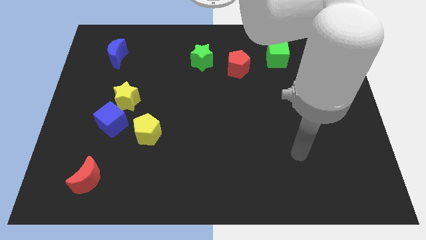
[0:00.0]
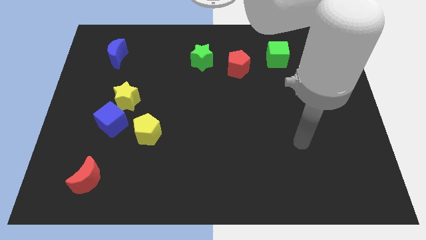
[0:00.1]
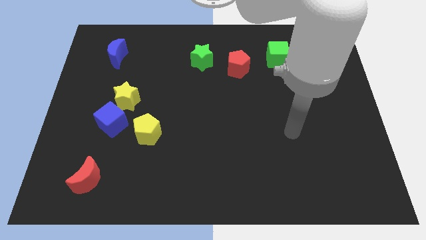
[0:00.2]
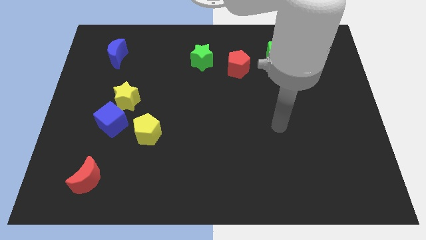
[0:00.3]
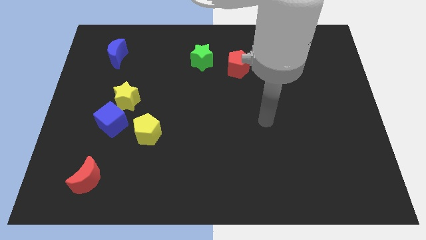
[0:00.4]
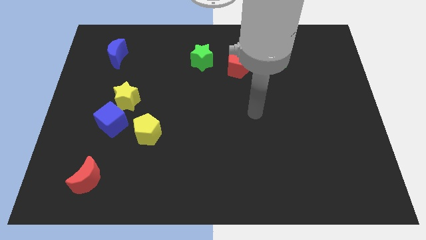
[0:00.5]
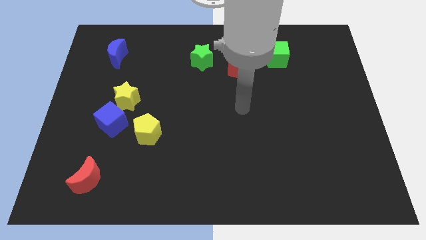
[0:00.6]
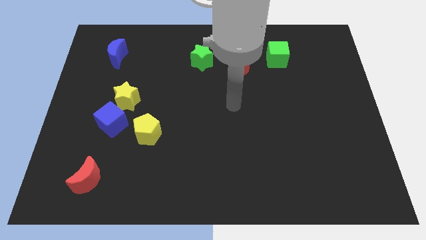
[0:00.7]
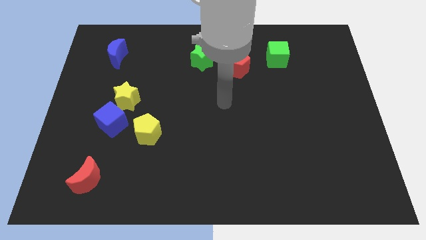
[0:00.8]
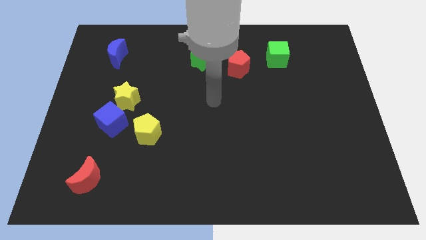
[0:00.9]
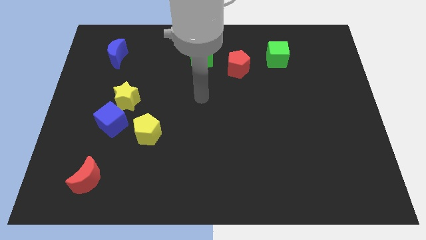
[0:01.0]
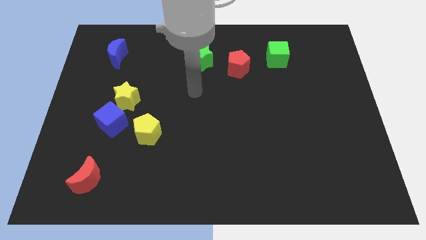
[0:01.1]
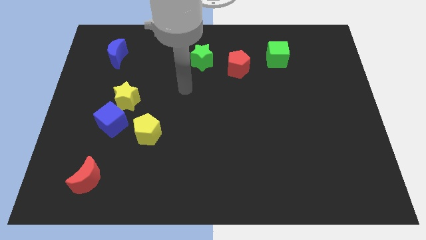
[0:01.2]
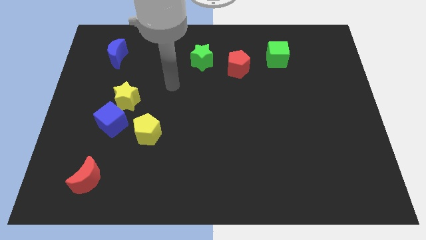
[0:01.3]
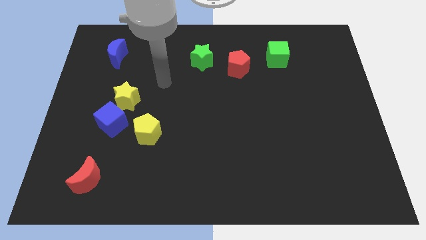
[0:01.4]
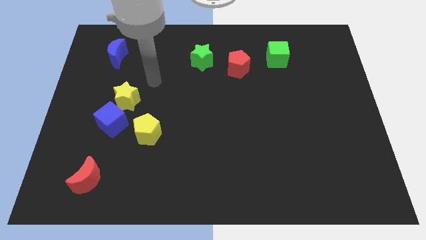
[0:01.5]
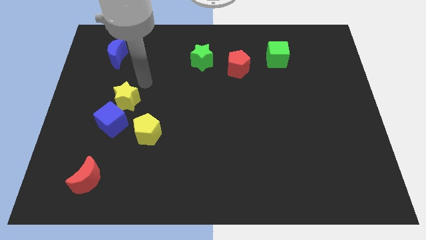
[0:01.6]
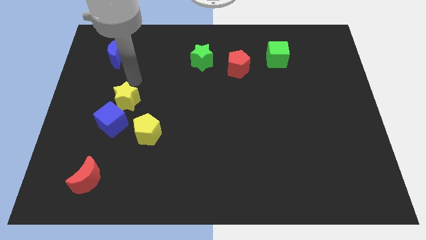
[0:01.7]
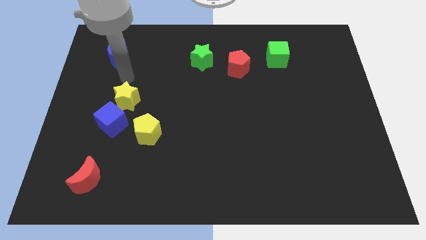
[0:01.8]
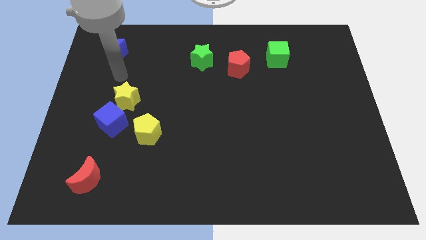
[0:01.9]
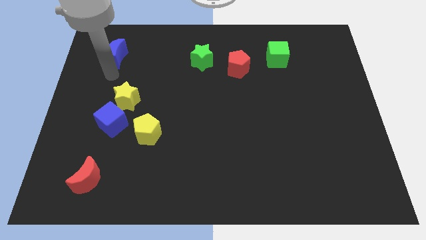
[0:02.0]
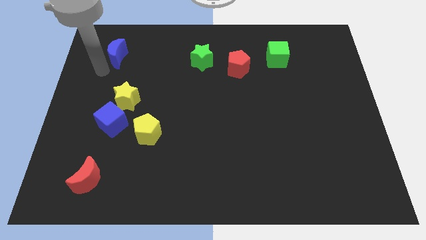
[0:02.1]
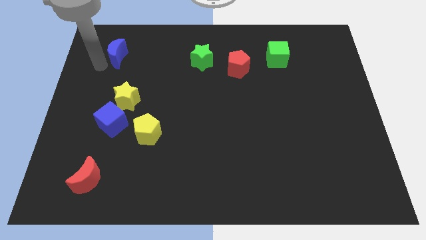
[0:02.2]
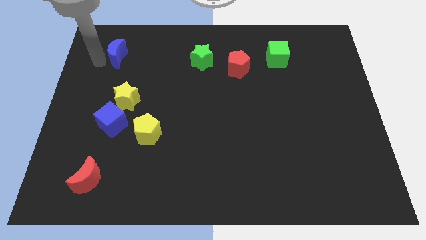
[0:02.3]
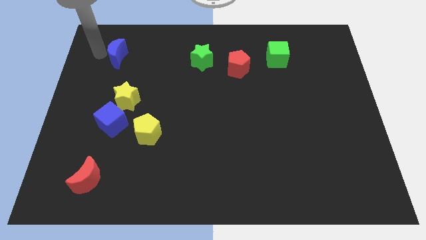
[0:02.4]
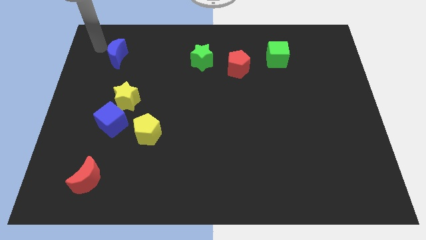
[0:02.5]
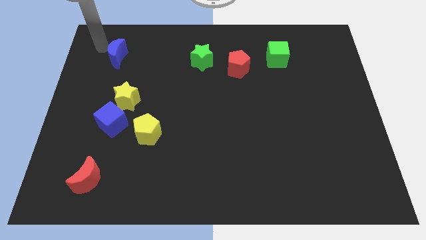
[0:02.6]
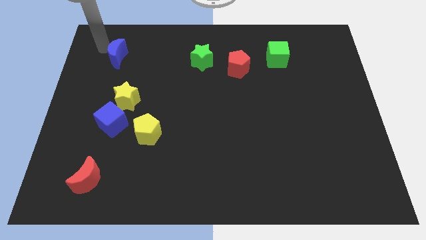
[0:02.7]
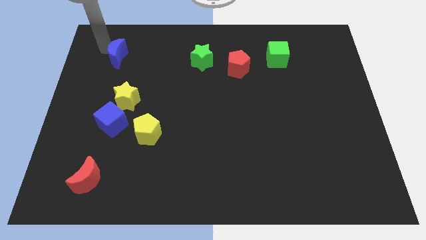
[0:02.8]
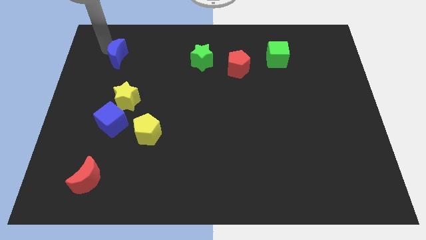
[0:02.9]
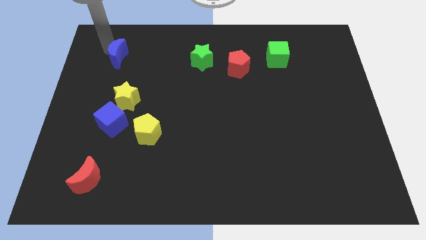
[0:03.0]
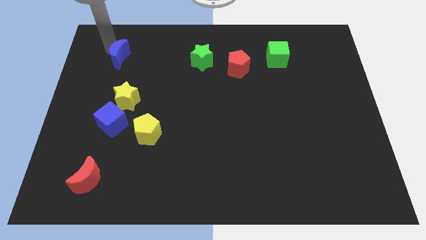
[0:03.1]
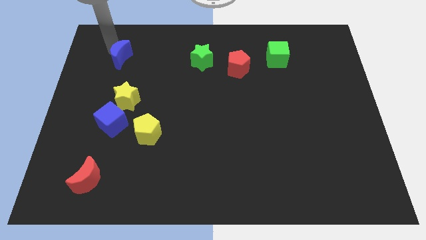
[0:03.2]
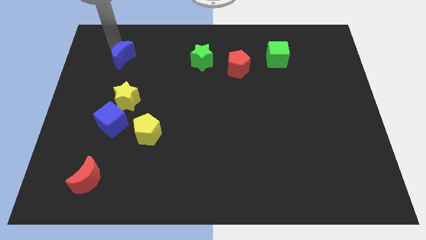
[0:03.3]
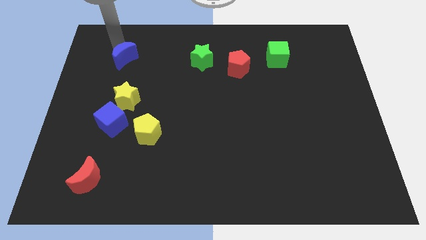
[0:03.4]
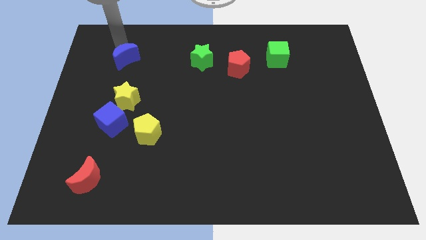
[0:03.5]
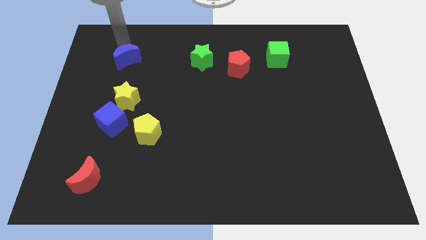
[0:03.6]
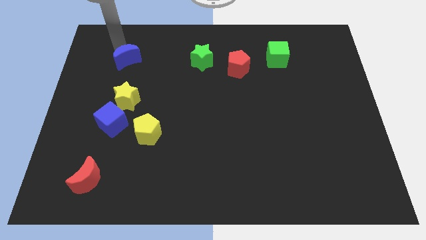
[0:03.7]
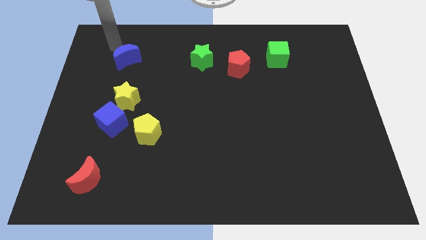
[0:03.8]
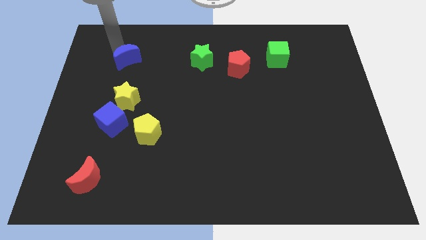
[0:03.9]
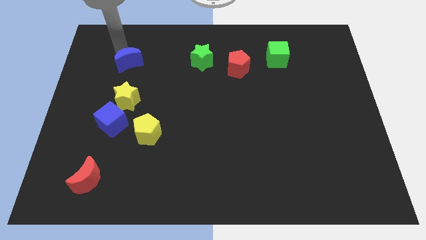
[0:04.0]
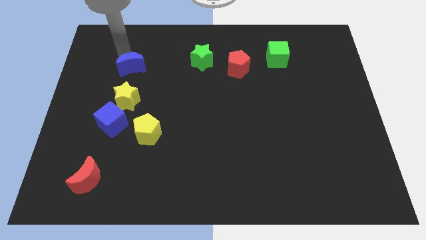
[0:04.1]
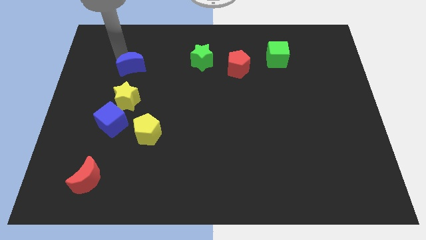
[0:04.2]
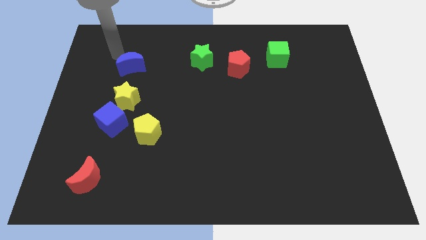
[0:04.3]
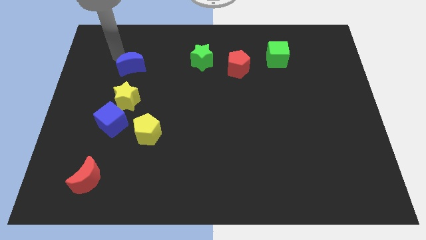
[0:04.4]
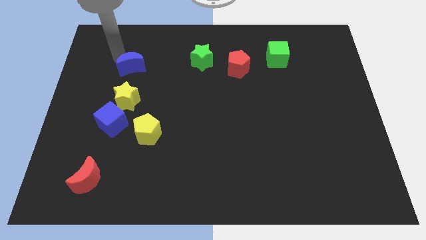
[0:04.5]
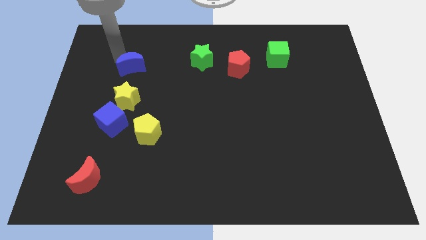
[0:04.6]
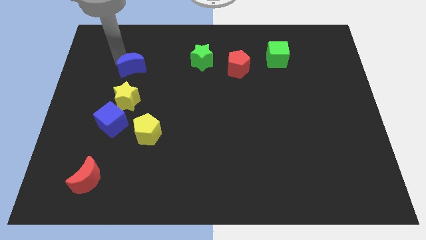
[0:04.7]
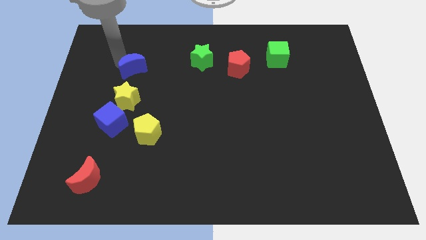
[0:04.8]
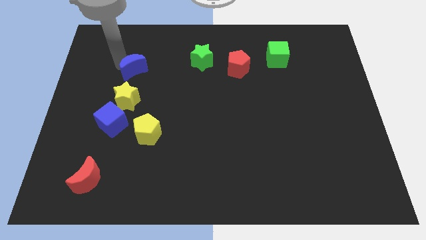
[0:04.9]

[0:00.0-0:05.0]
slightly push the blue moon down and to the right

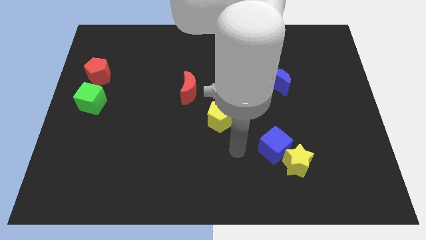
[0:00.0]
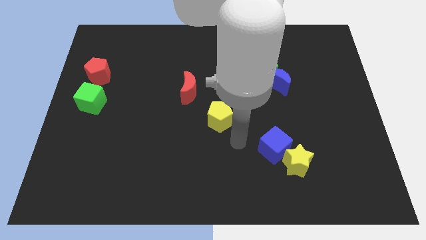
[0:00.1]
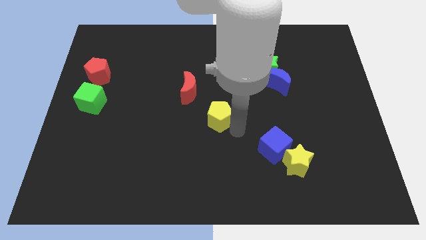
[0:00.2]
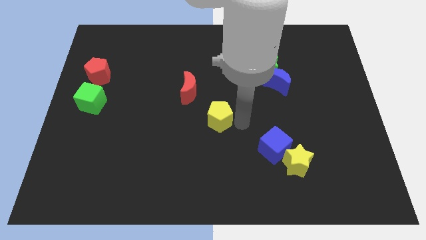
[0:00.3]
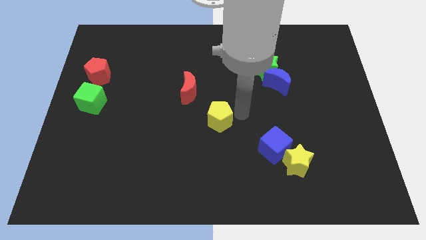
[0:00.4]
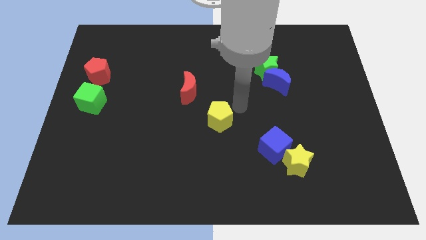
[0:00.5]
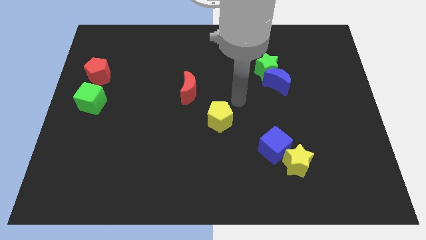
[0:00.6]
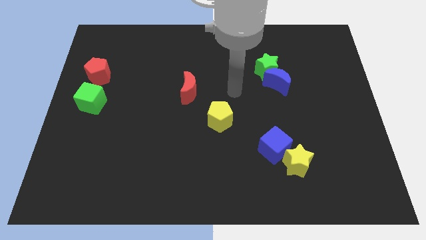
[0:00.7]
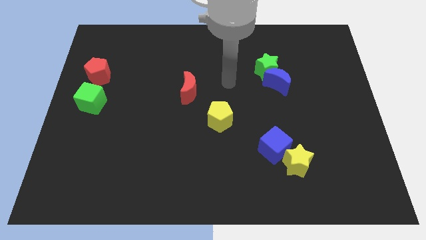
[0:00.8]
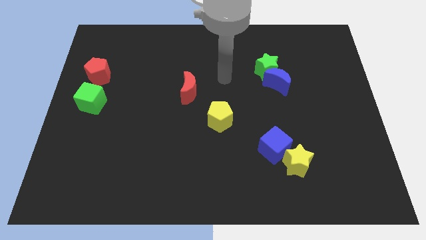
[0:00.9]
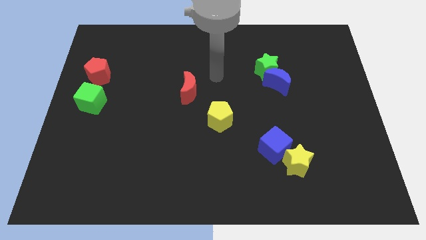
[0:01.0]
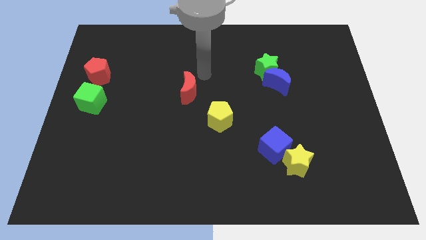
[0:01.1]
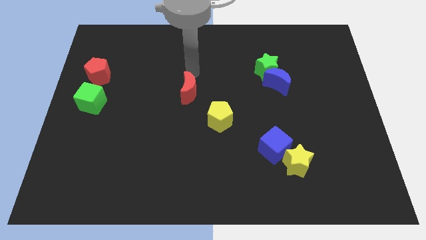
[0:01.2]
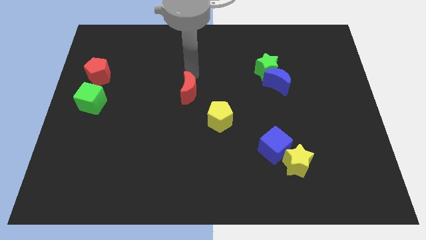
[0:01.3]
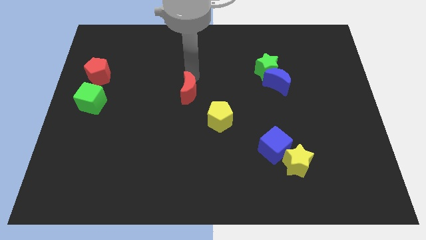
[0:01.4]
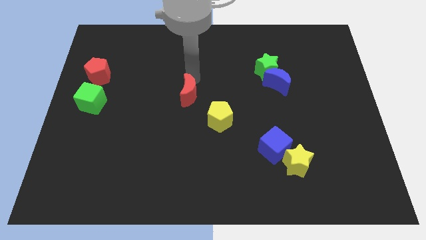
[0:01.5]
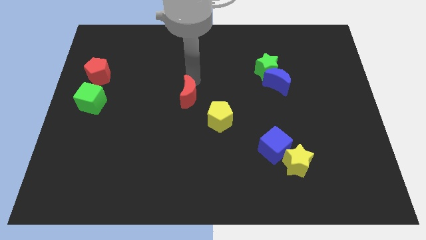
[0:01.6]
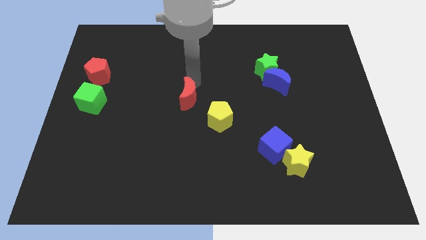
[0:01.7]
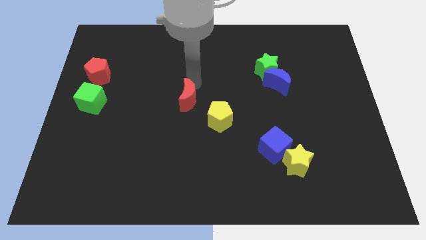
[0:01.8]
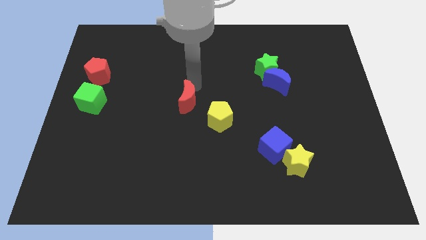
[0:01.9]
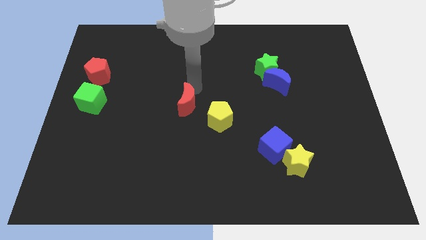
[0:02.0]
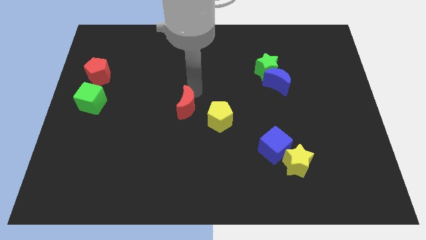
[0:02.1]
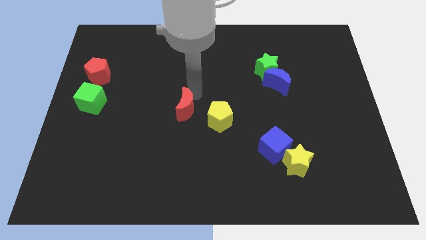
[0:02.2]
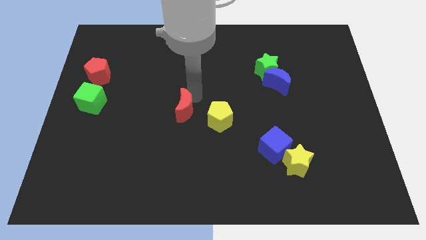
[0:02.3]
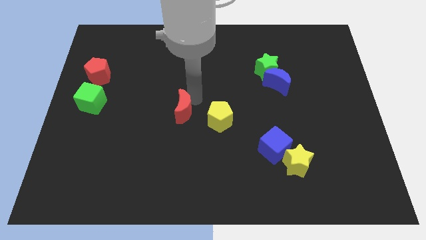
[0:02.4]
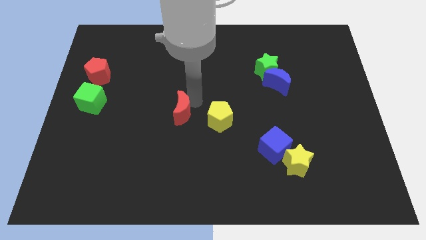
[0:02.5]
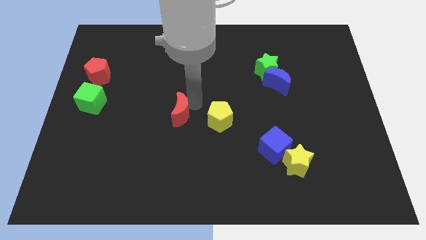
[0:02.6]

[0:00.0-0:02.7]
move the red moon a little bit down
